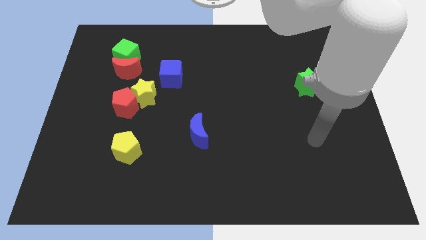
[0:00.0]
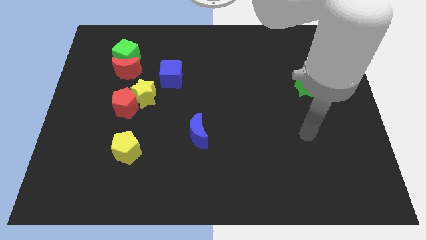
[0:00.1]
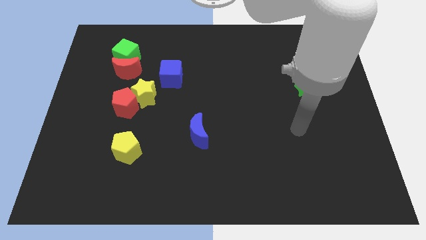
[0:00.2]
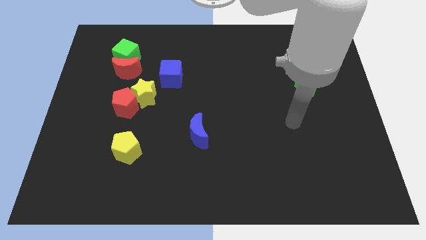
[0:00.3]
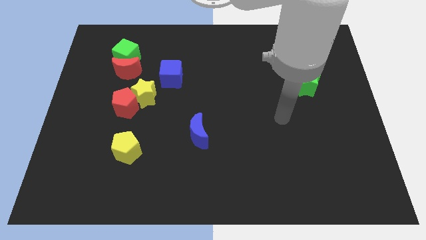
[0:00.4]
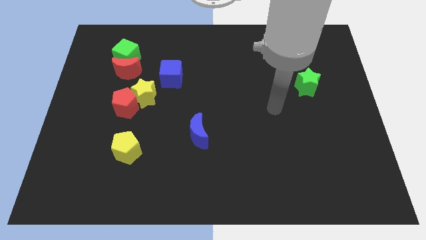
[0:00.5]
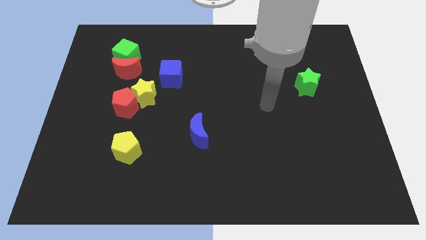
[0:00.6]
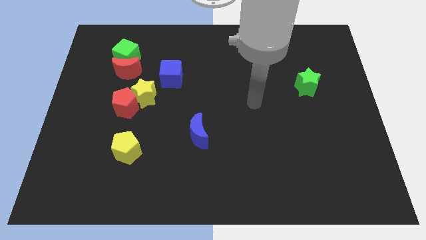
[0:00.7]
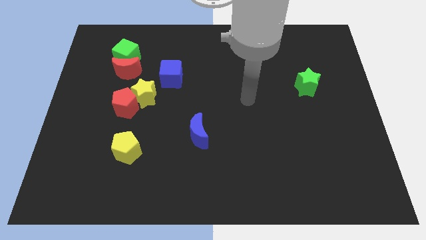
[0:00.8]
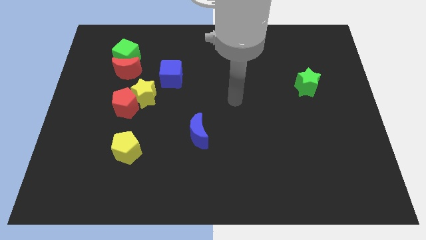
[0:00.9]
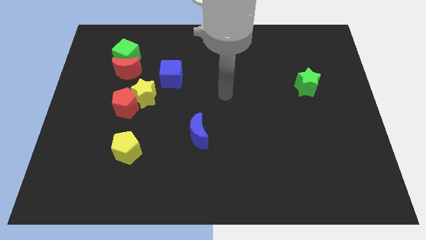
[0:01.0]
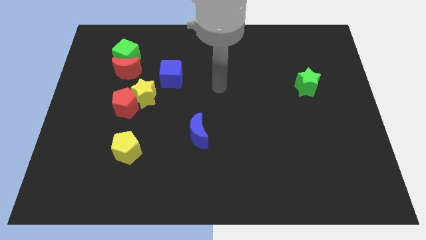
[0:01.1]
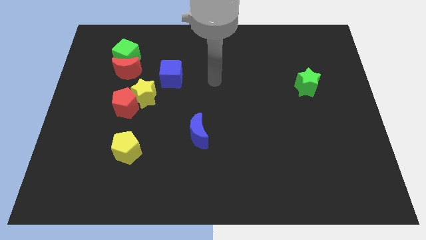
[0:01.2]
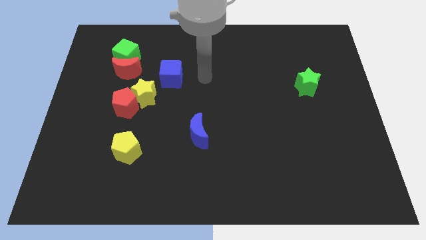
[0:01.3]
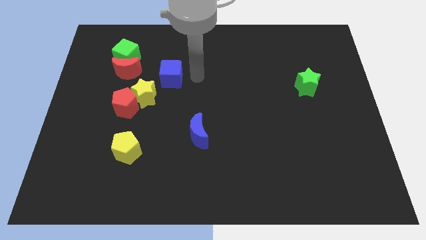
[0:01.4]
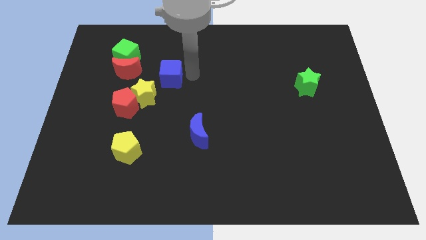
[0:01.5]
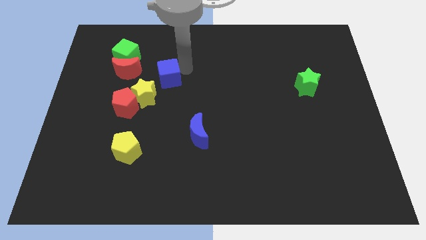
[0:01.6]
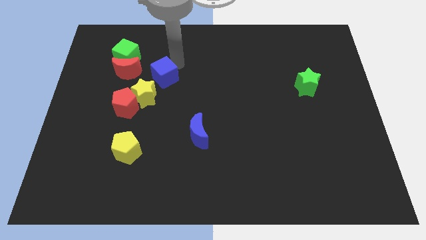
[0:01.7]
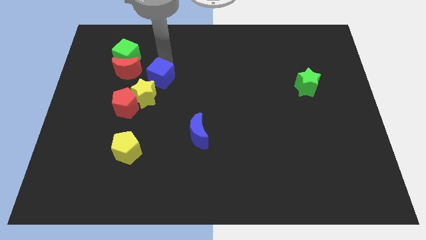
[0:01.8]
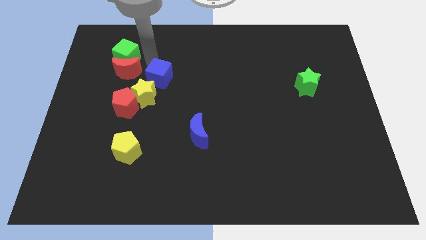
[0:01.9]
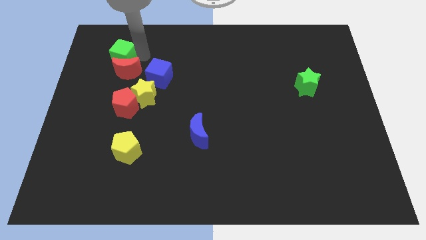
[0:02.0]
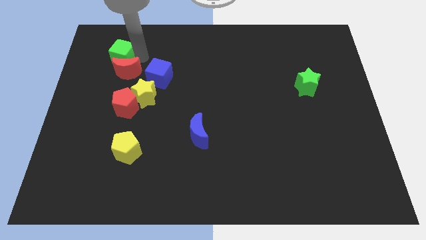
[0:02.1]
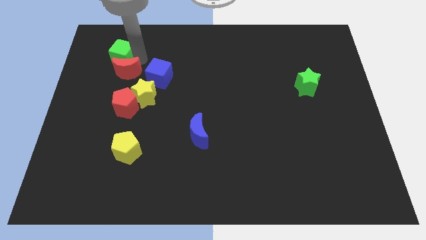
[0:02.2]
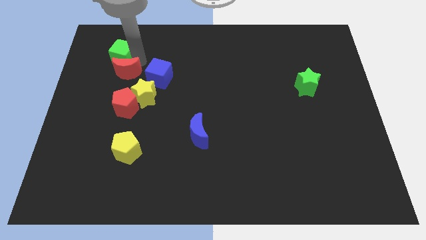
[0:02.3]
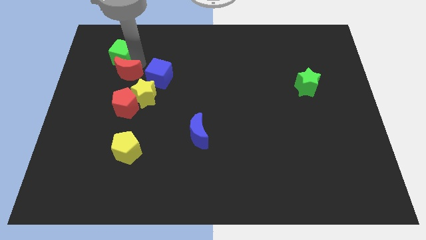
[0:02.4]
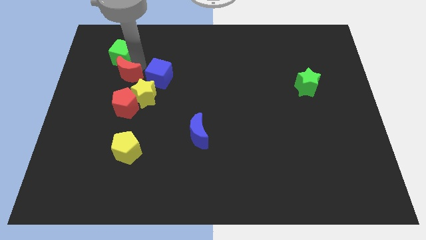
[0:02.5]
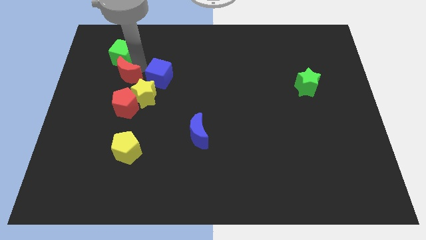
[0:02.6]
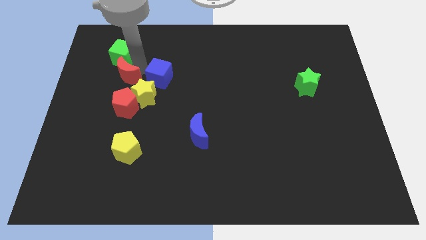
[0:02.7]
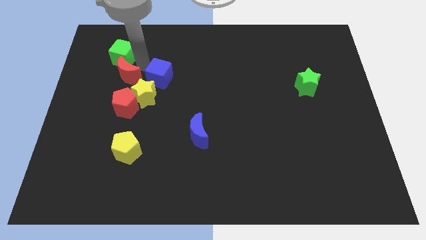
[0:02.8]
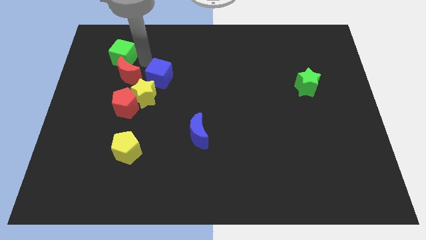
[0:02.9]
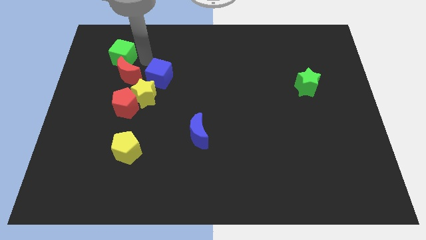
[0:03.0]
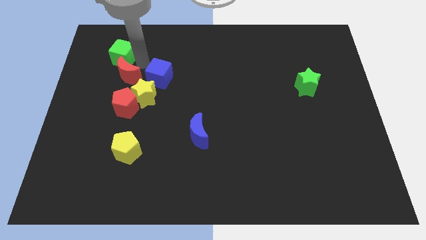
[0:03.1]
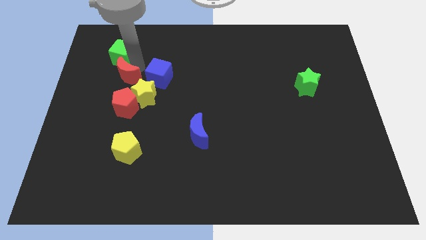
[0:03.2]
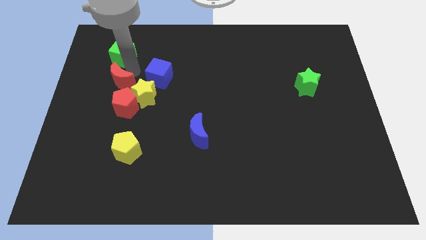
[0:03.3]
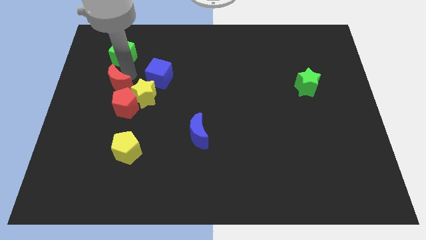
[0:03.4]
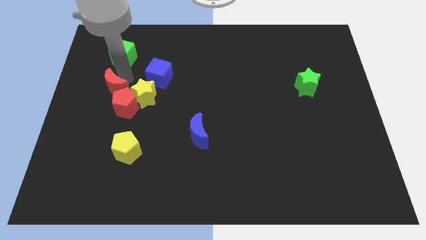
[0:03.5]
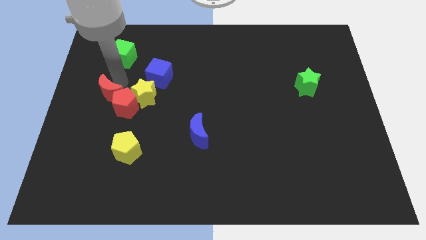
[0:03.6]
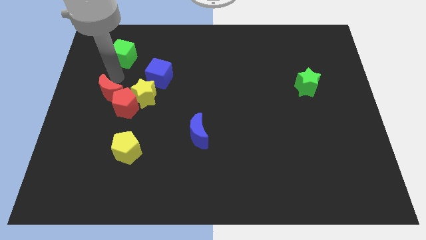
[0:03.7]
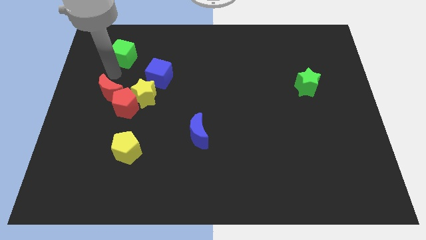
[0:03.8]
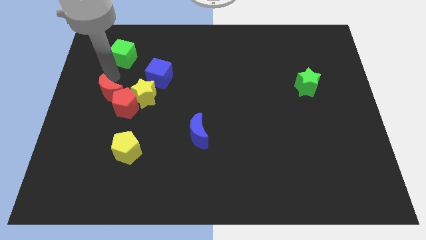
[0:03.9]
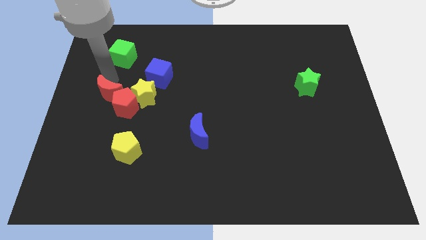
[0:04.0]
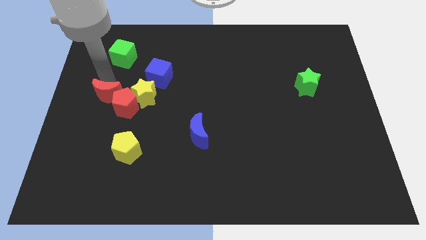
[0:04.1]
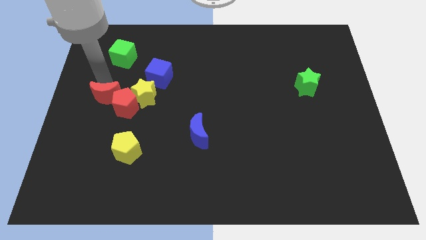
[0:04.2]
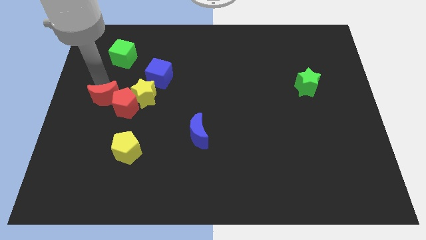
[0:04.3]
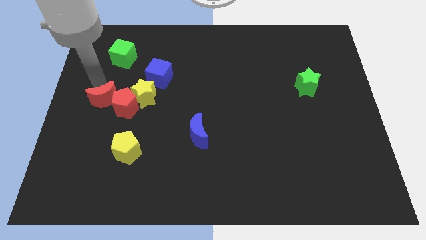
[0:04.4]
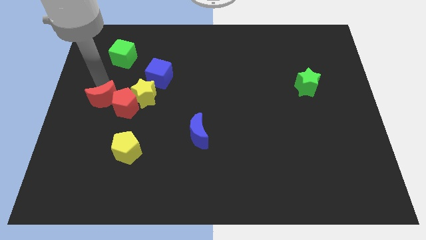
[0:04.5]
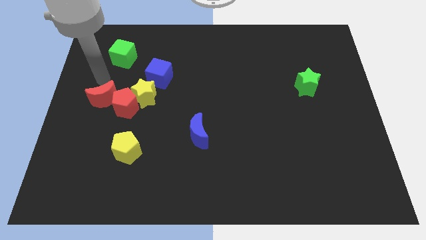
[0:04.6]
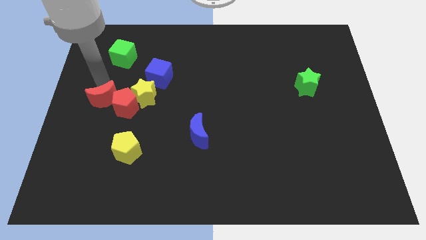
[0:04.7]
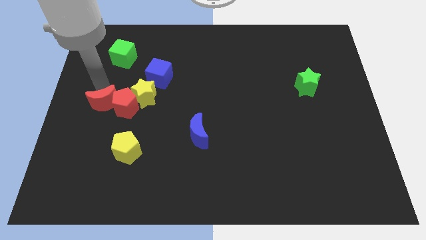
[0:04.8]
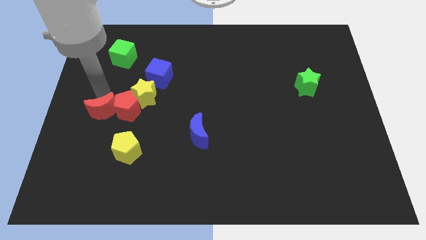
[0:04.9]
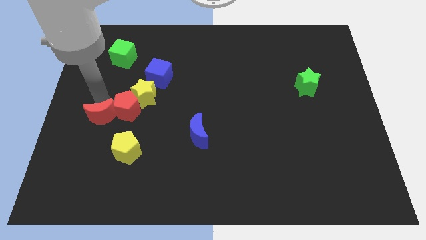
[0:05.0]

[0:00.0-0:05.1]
slide the red moon to the top left side of the yellow pentagon

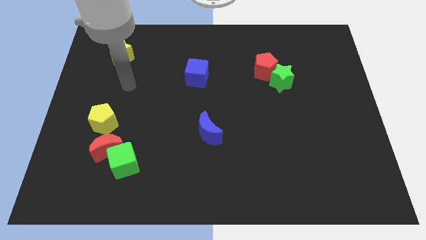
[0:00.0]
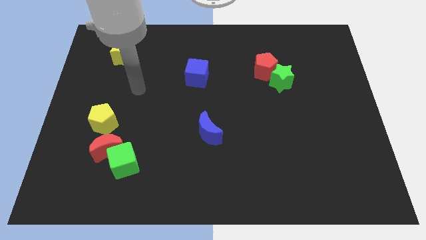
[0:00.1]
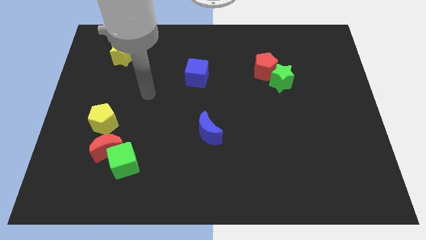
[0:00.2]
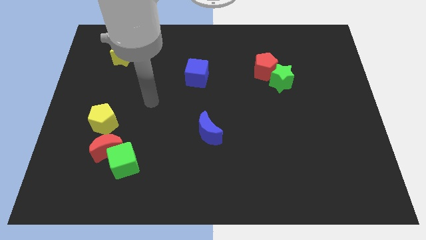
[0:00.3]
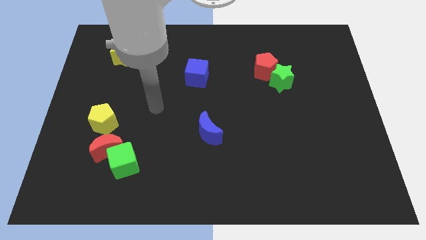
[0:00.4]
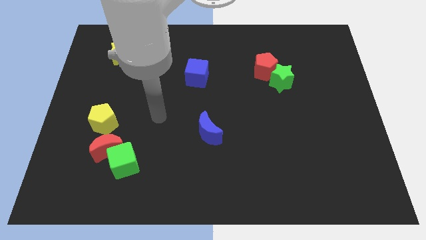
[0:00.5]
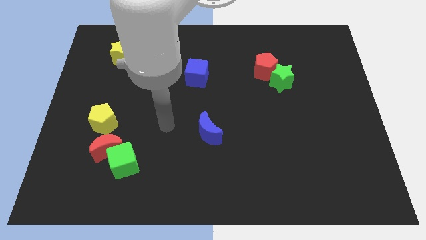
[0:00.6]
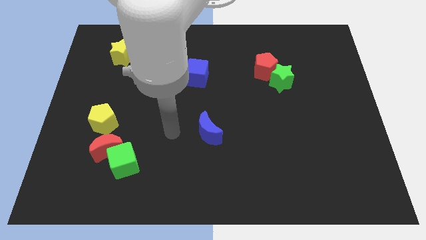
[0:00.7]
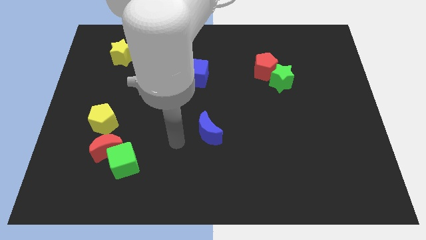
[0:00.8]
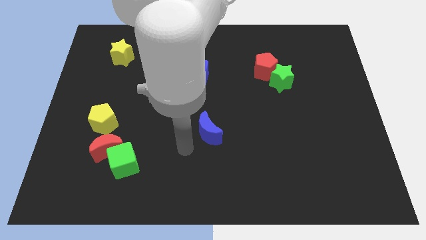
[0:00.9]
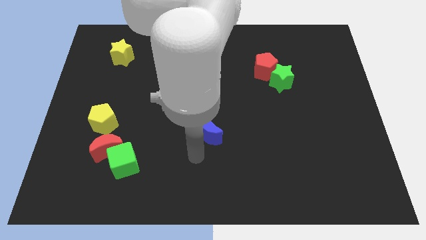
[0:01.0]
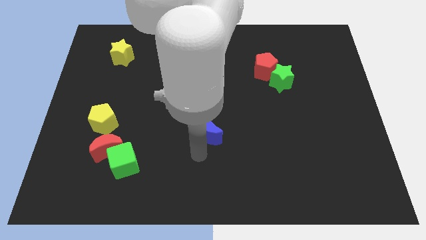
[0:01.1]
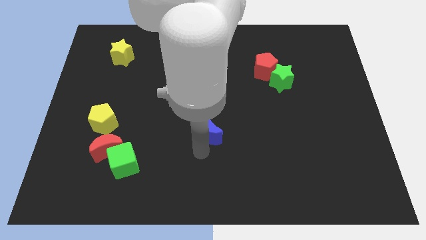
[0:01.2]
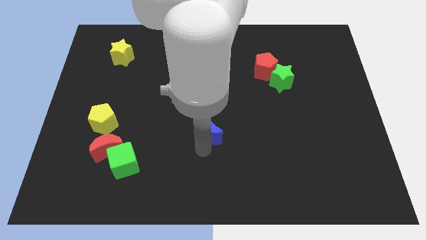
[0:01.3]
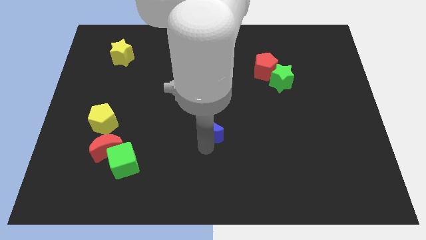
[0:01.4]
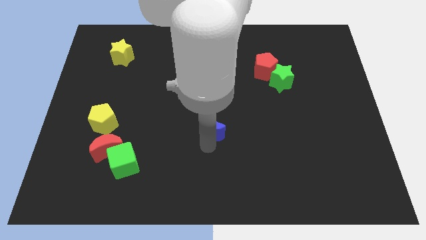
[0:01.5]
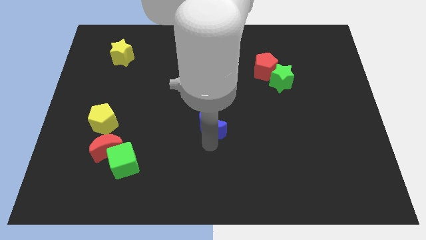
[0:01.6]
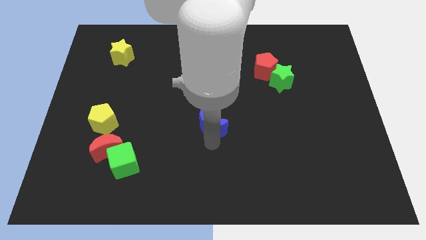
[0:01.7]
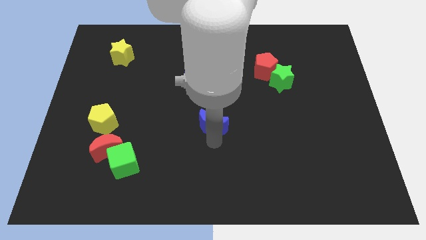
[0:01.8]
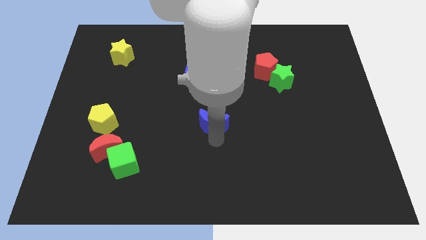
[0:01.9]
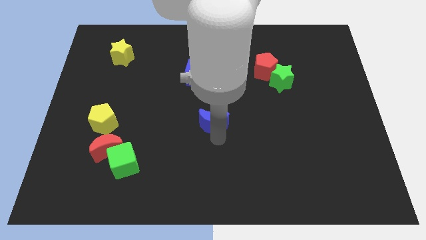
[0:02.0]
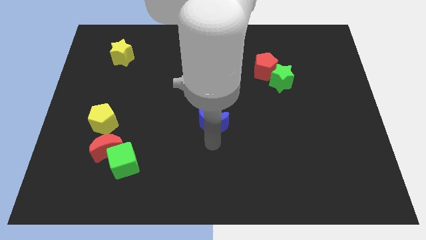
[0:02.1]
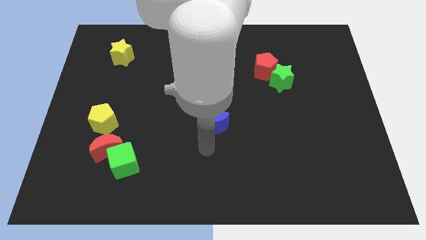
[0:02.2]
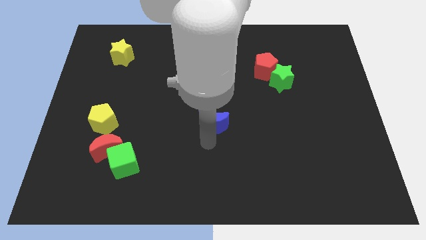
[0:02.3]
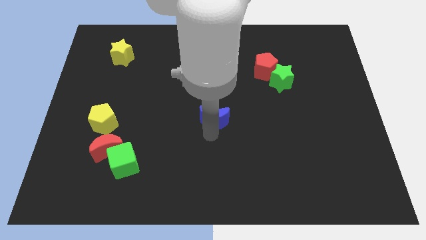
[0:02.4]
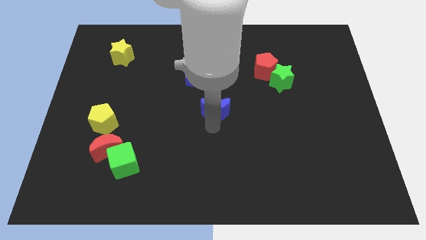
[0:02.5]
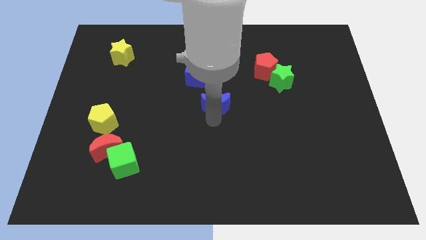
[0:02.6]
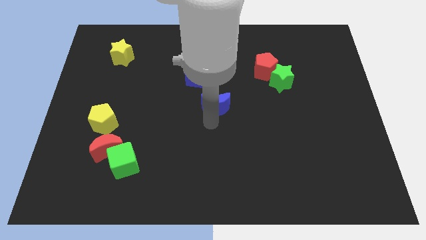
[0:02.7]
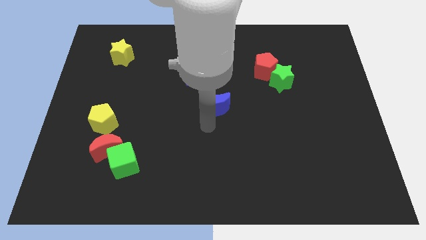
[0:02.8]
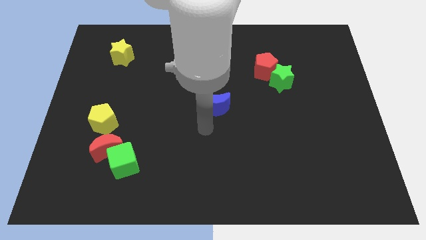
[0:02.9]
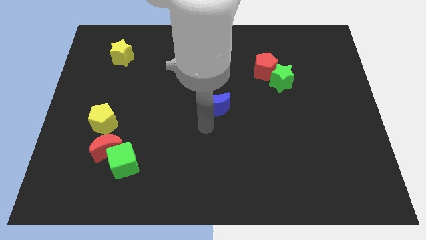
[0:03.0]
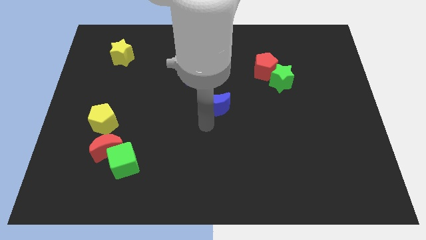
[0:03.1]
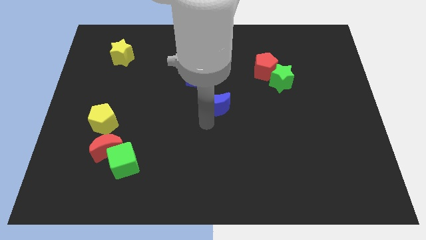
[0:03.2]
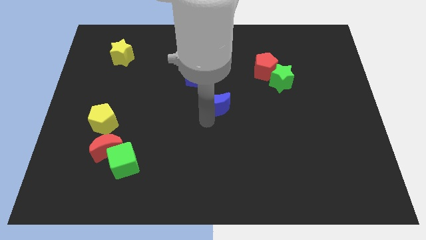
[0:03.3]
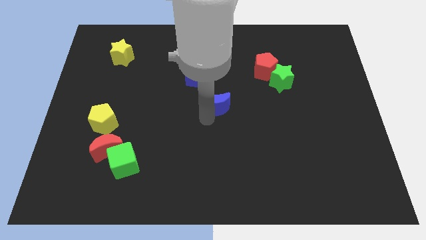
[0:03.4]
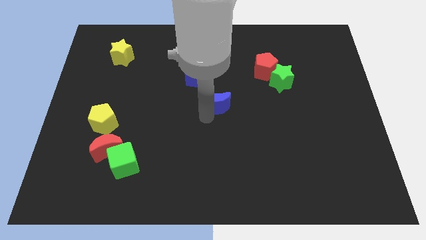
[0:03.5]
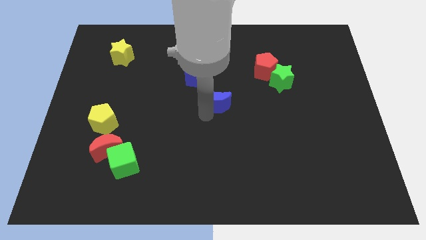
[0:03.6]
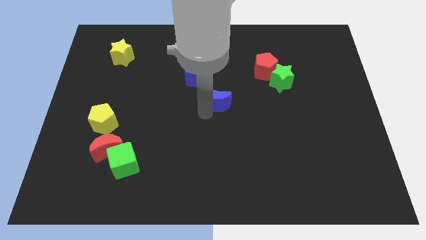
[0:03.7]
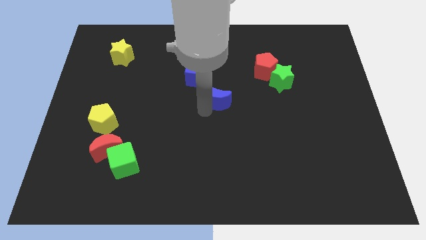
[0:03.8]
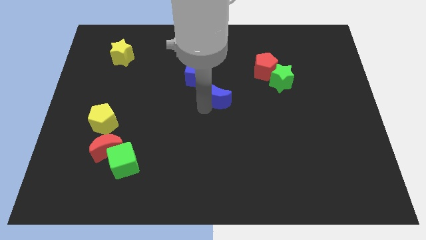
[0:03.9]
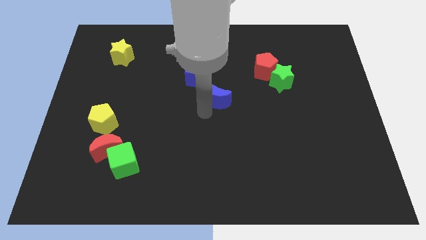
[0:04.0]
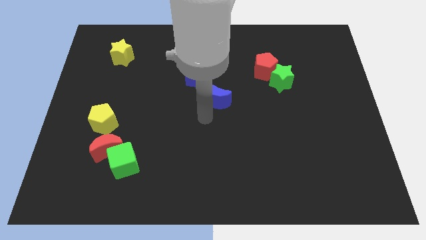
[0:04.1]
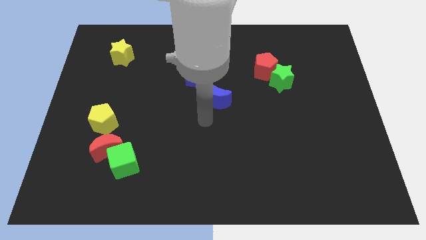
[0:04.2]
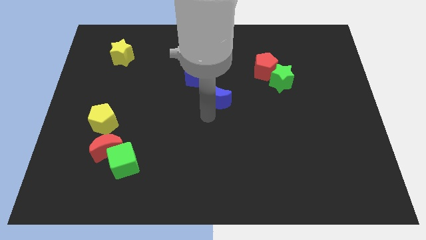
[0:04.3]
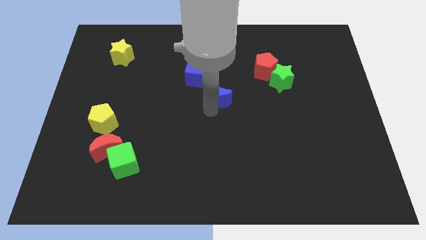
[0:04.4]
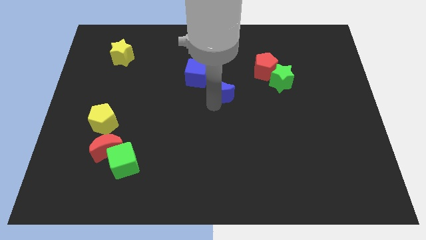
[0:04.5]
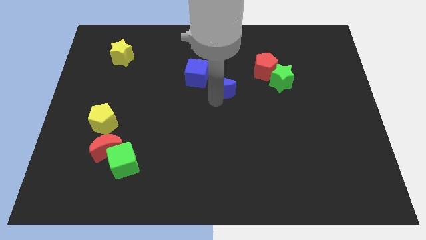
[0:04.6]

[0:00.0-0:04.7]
move the blue moon to the right of the blue cube
